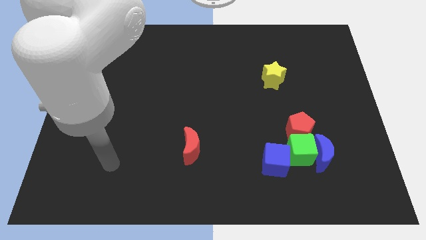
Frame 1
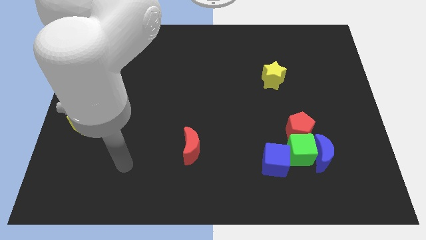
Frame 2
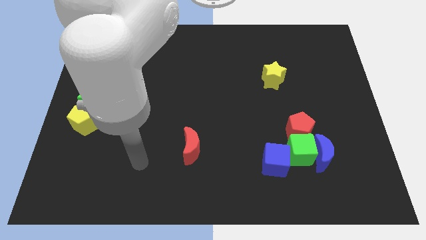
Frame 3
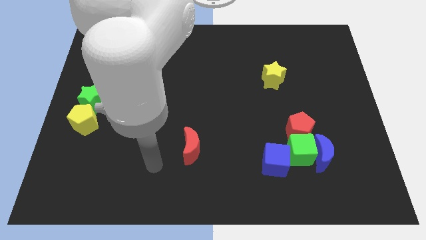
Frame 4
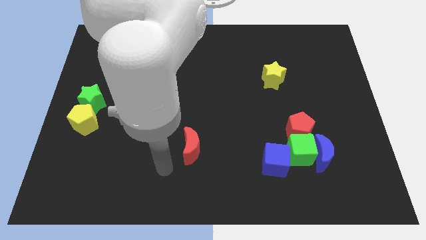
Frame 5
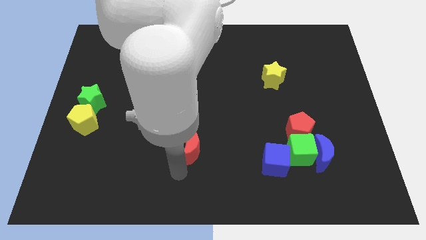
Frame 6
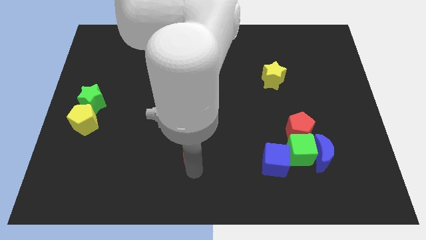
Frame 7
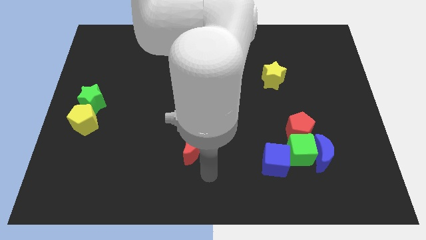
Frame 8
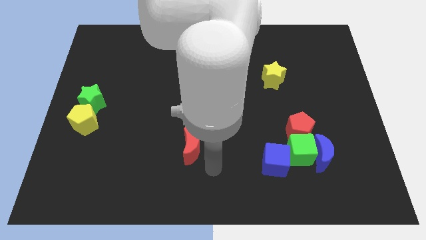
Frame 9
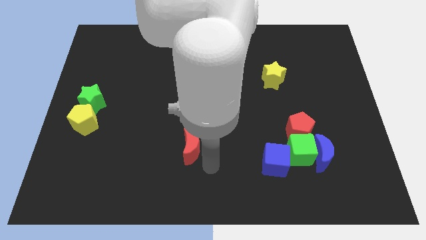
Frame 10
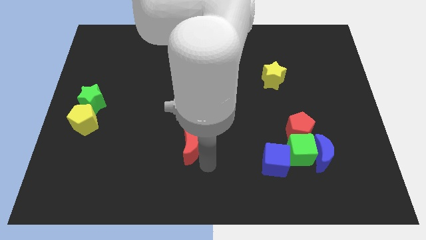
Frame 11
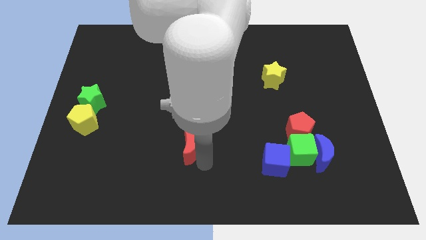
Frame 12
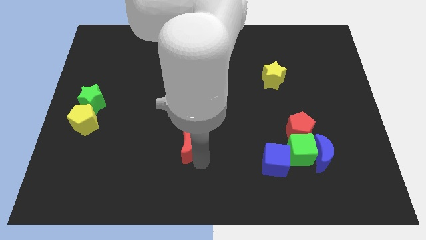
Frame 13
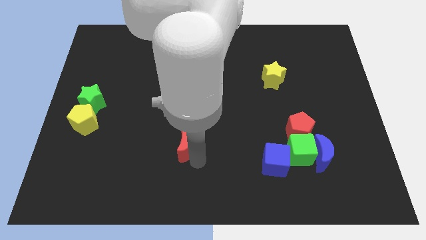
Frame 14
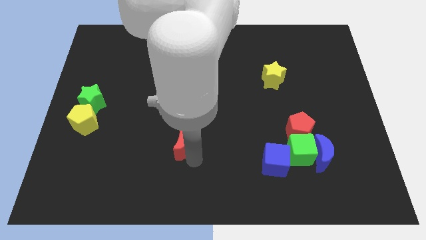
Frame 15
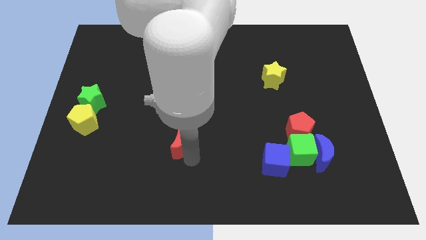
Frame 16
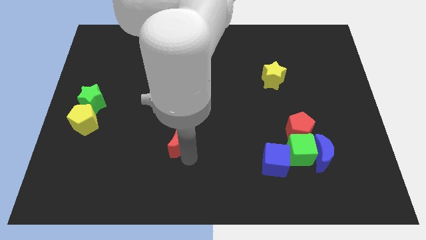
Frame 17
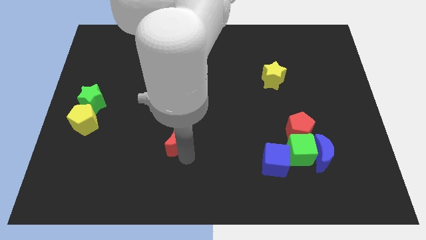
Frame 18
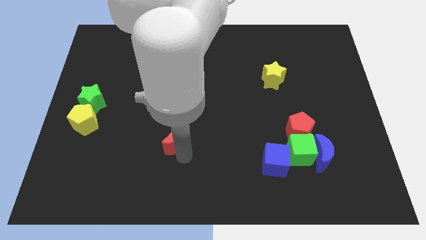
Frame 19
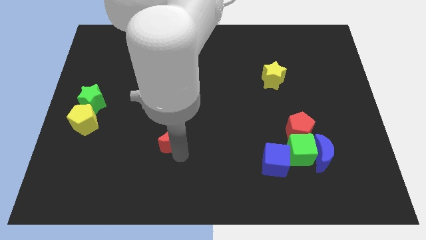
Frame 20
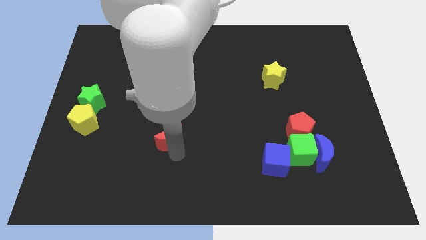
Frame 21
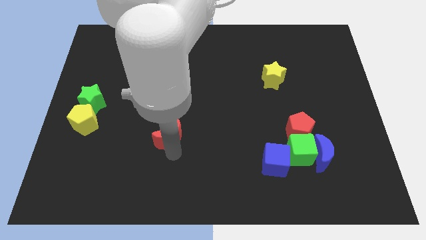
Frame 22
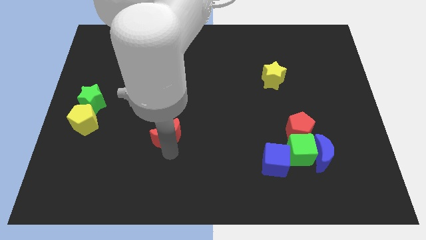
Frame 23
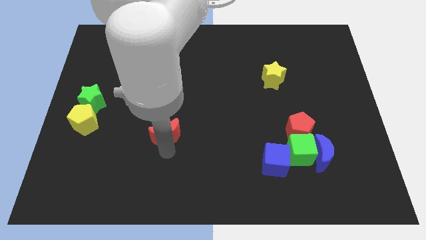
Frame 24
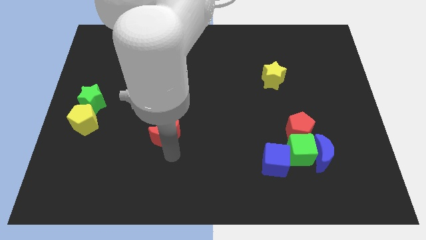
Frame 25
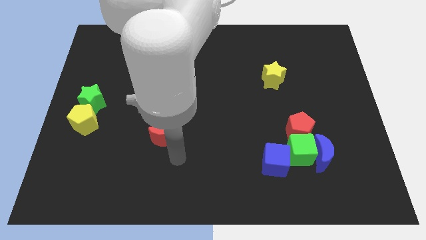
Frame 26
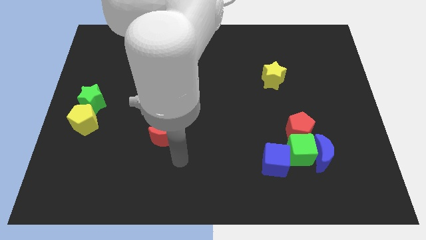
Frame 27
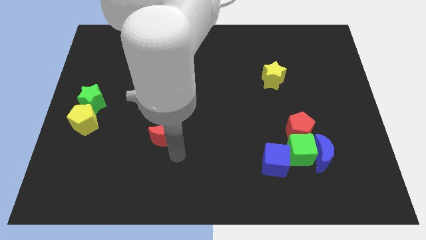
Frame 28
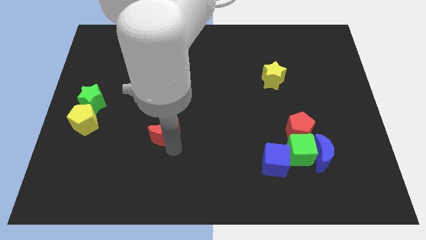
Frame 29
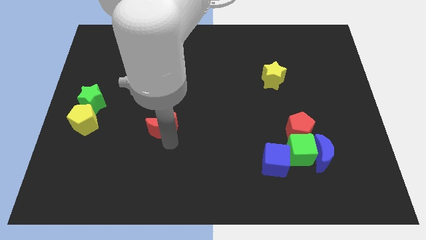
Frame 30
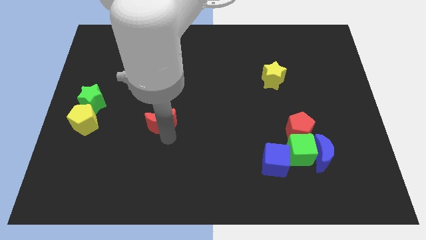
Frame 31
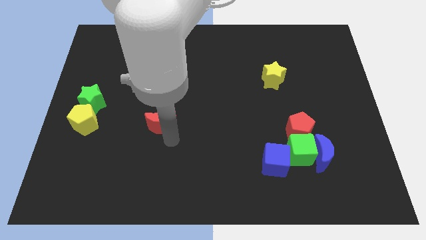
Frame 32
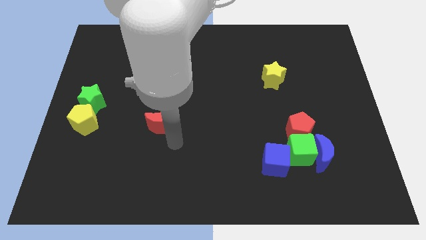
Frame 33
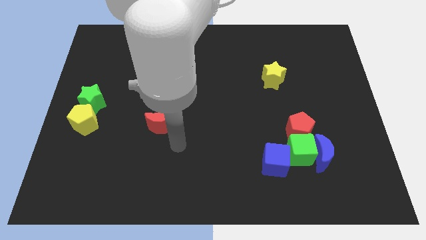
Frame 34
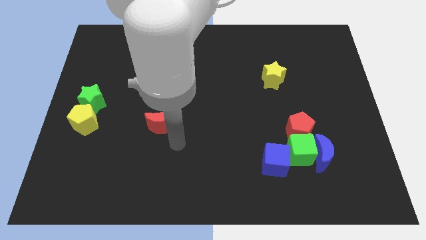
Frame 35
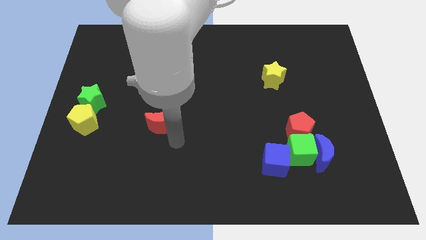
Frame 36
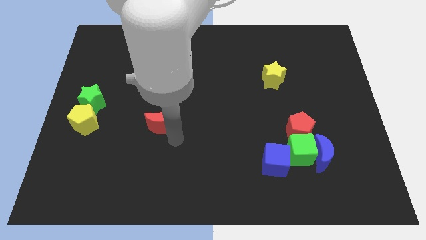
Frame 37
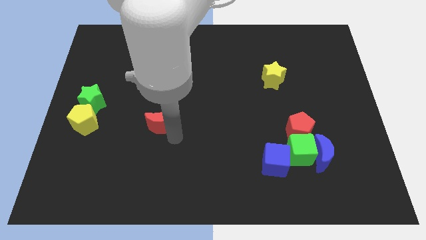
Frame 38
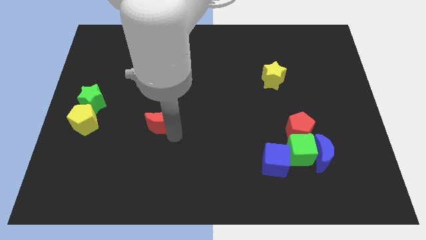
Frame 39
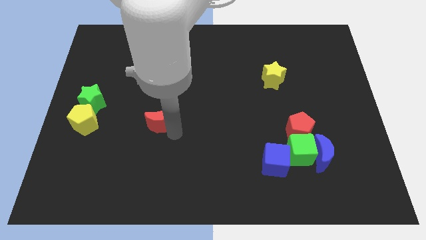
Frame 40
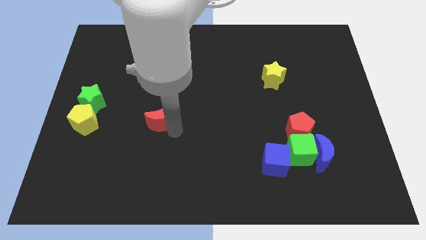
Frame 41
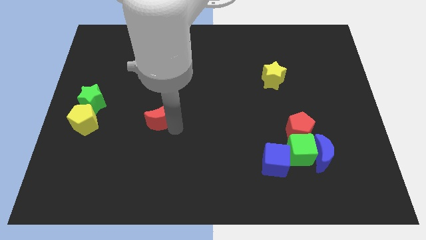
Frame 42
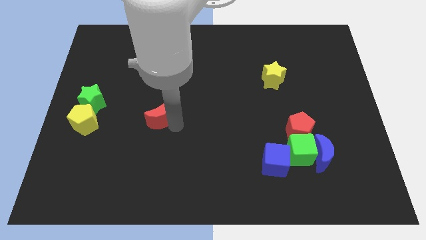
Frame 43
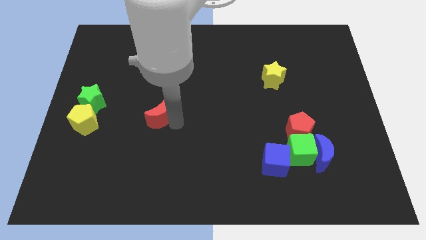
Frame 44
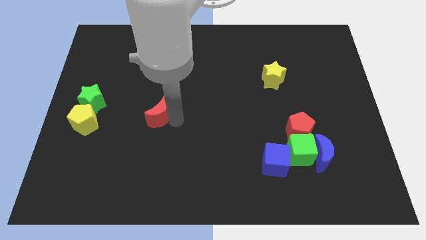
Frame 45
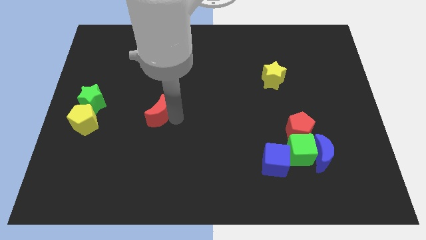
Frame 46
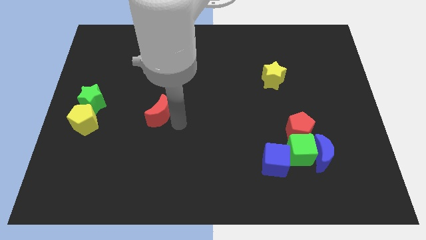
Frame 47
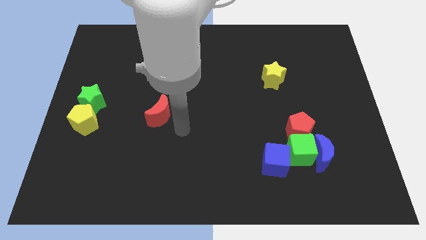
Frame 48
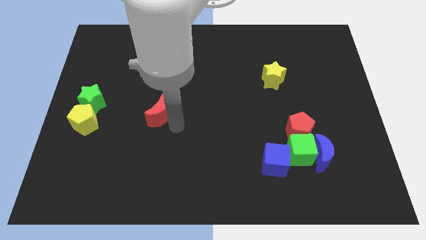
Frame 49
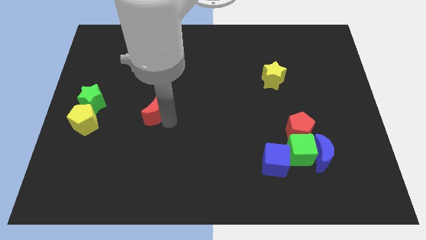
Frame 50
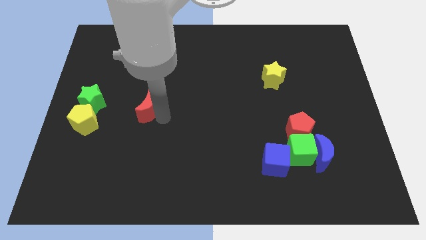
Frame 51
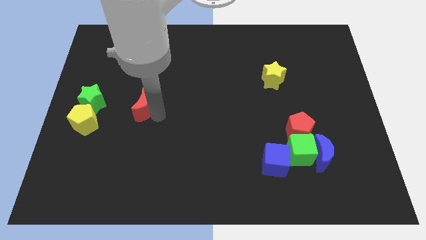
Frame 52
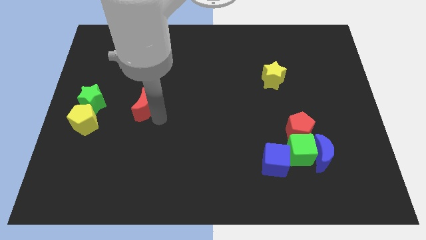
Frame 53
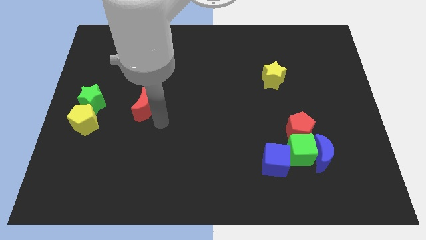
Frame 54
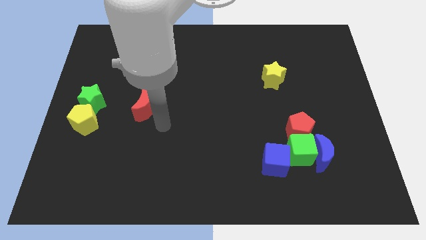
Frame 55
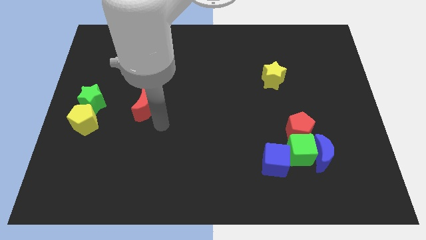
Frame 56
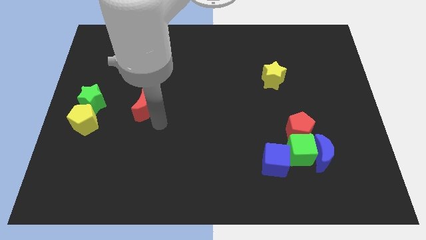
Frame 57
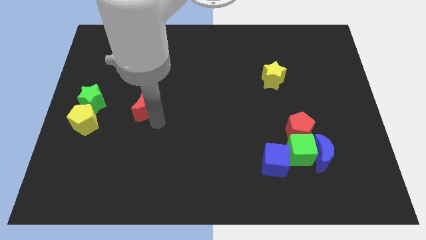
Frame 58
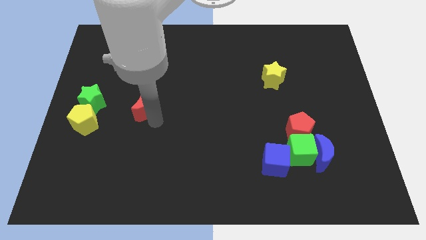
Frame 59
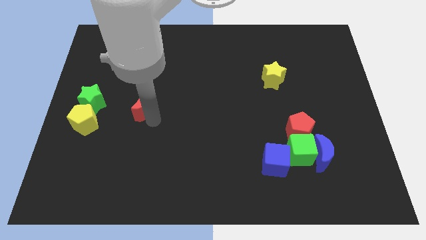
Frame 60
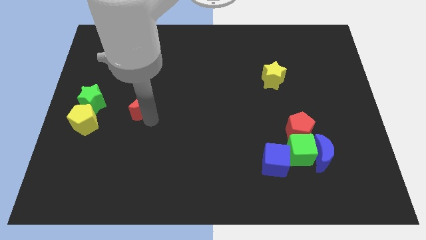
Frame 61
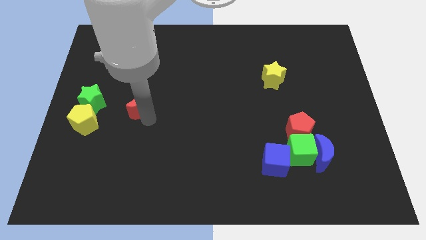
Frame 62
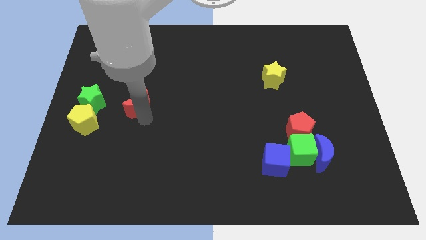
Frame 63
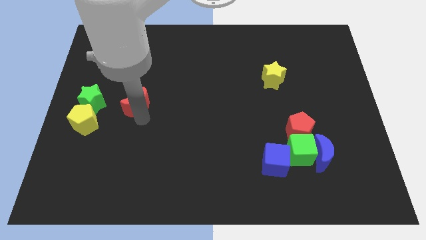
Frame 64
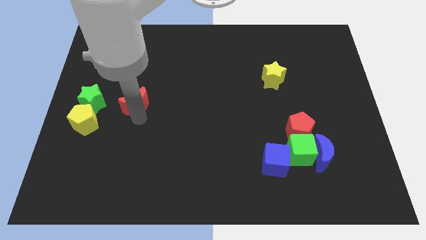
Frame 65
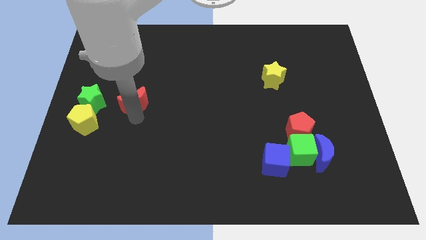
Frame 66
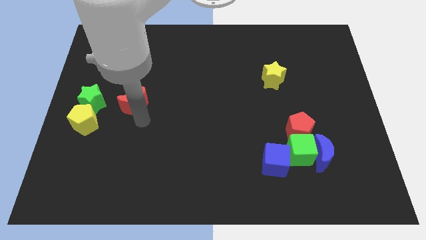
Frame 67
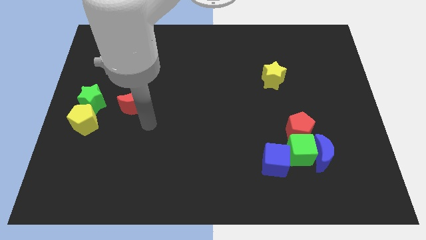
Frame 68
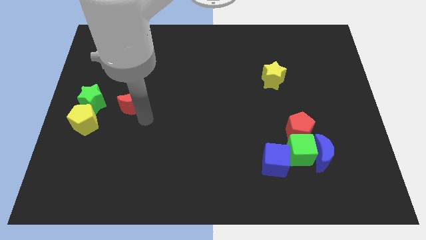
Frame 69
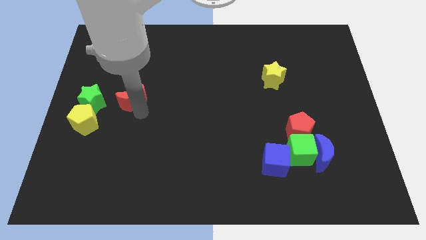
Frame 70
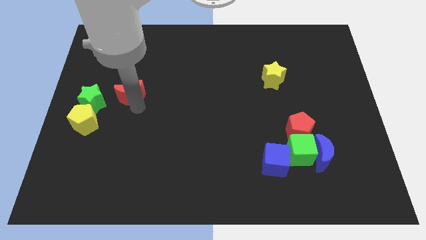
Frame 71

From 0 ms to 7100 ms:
slide the red moon upwards and then to the left

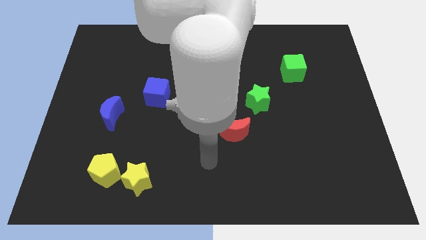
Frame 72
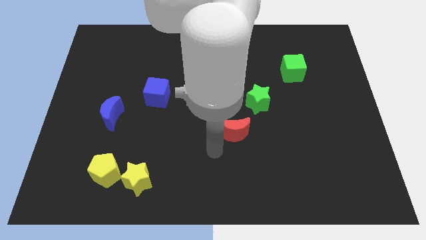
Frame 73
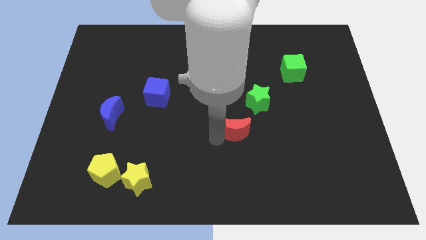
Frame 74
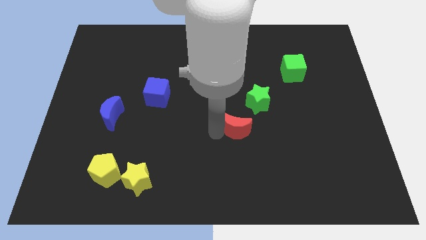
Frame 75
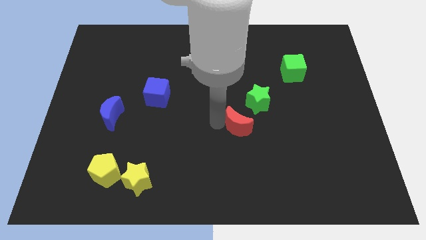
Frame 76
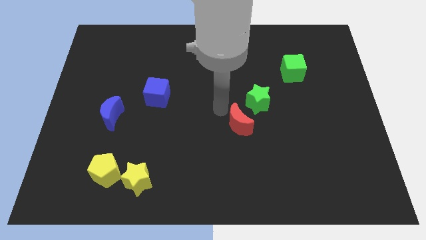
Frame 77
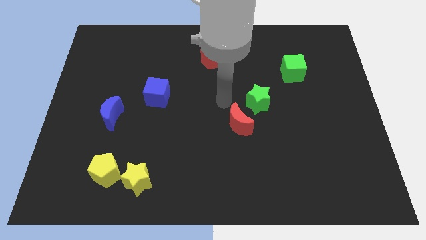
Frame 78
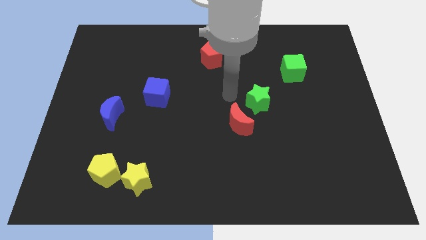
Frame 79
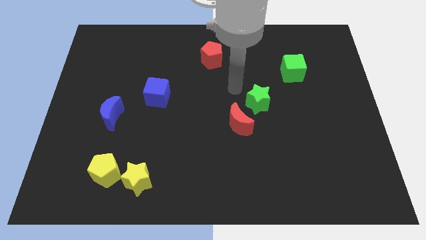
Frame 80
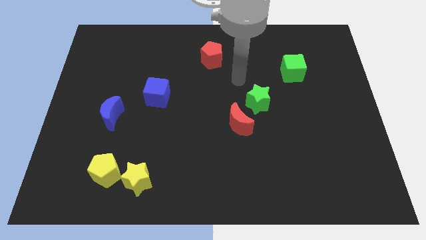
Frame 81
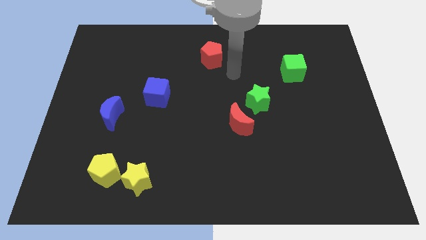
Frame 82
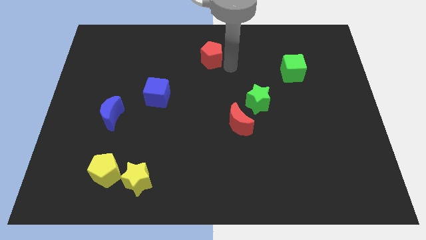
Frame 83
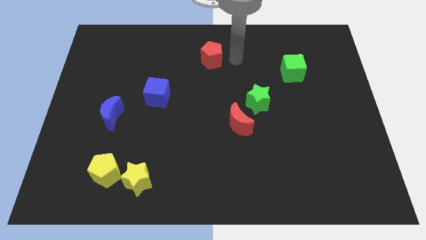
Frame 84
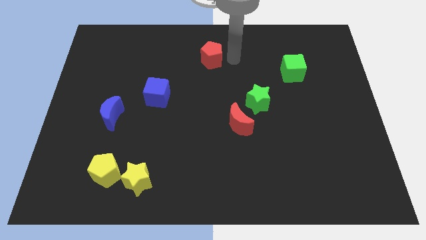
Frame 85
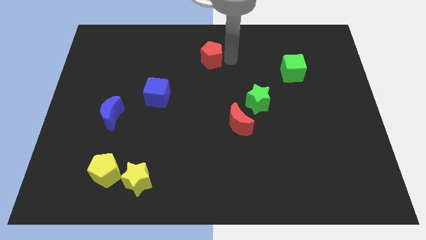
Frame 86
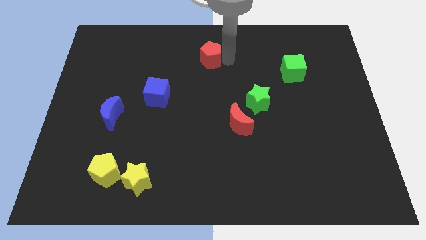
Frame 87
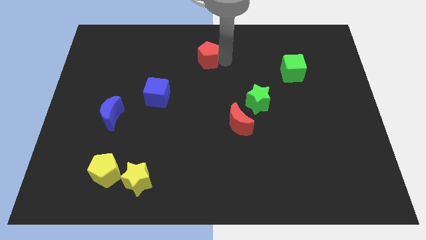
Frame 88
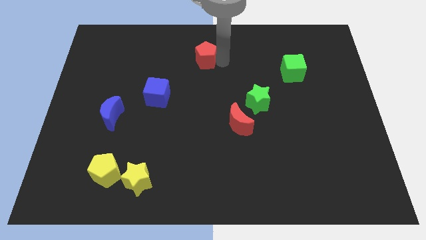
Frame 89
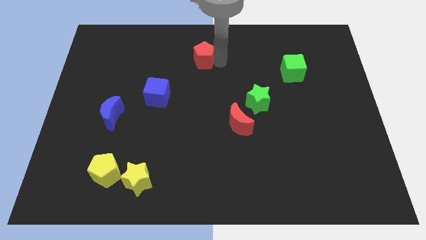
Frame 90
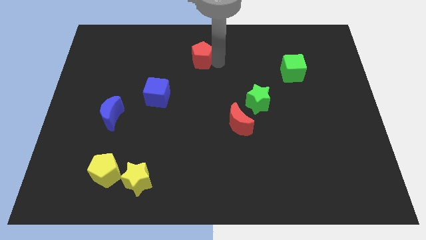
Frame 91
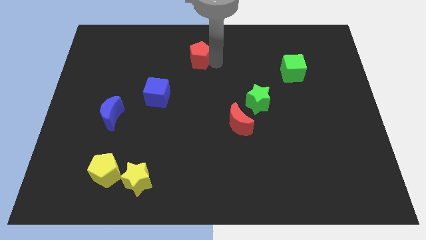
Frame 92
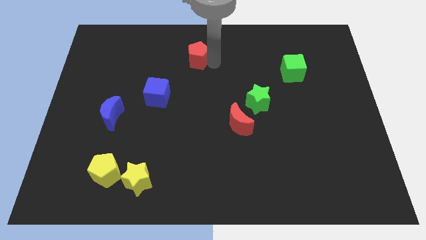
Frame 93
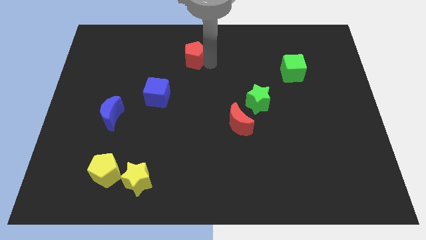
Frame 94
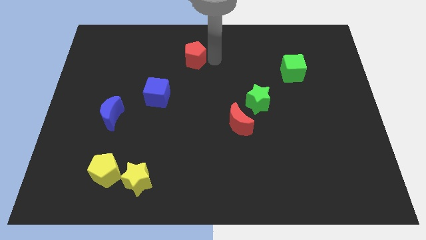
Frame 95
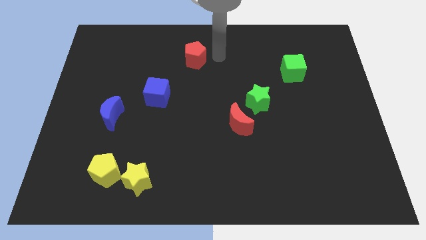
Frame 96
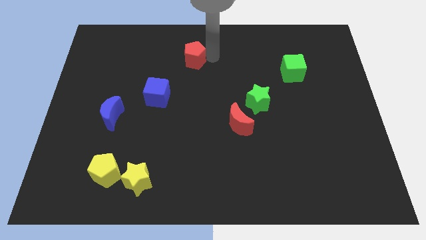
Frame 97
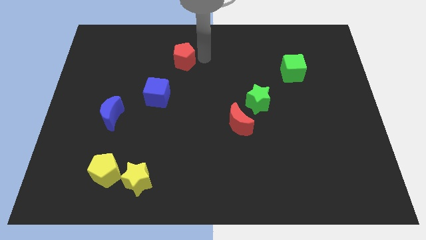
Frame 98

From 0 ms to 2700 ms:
push the red pentagon a bit to the left
